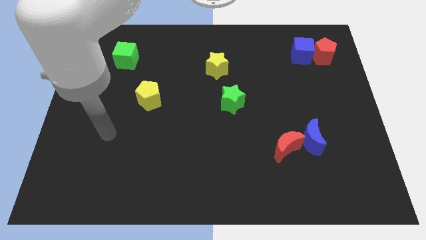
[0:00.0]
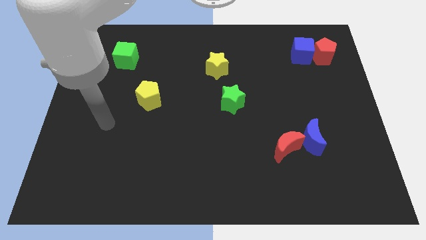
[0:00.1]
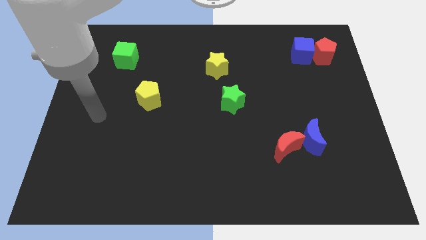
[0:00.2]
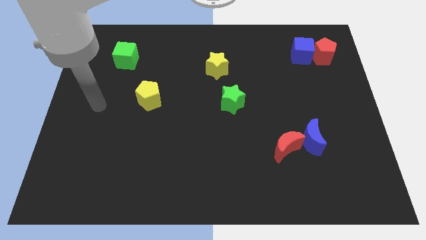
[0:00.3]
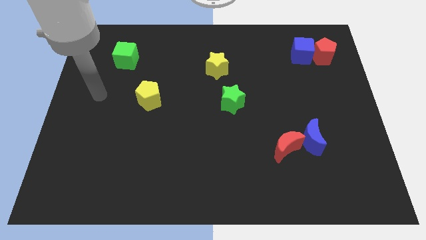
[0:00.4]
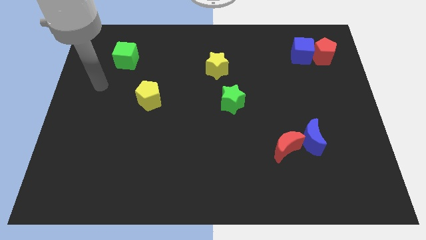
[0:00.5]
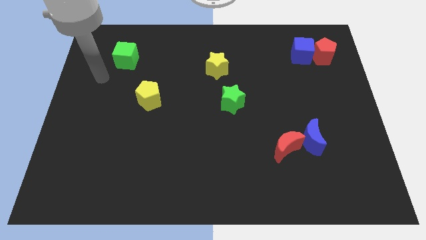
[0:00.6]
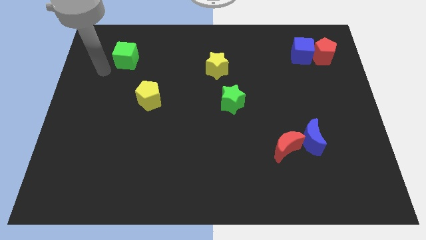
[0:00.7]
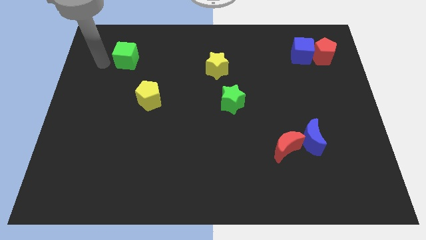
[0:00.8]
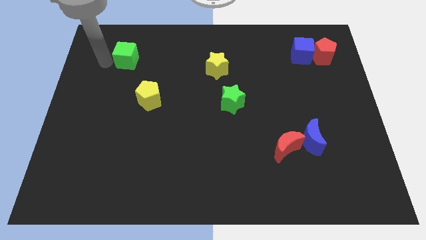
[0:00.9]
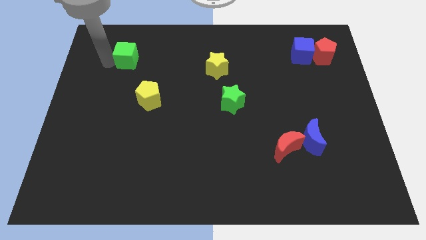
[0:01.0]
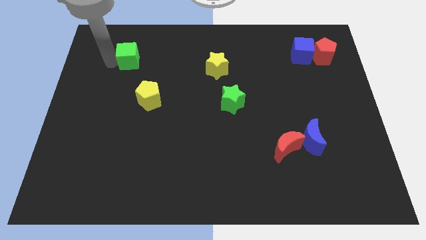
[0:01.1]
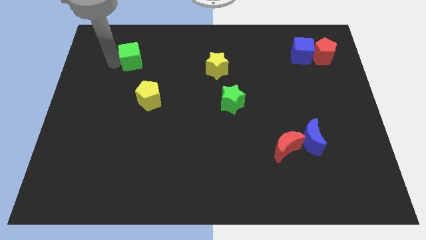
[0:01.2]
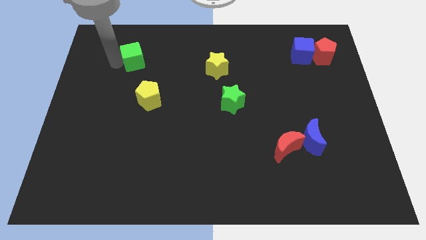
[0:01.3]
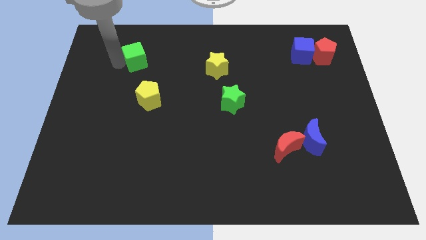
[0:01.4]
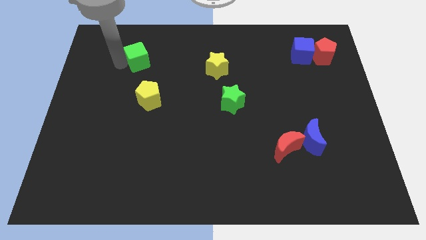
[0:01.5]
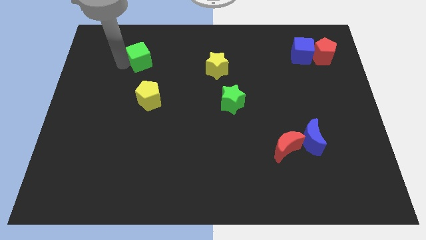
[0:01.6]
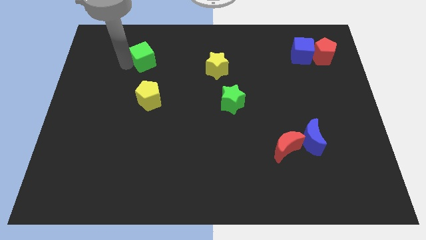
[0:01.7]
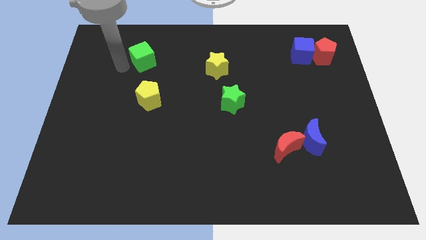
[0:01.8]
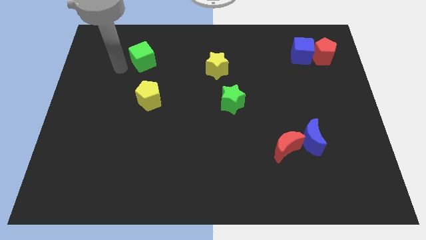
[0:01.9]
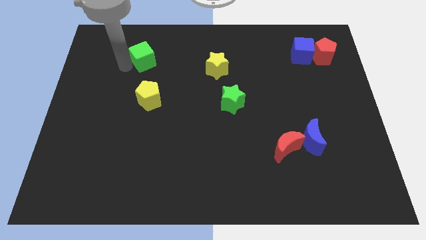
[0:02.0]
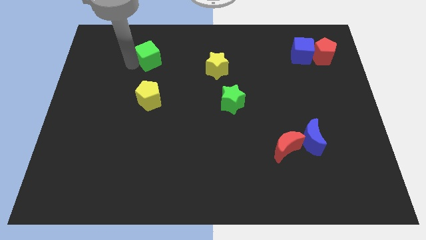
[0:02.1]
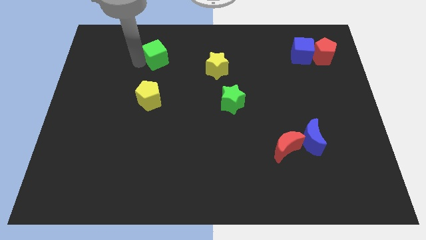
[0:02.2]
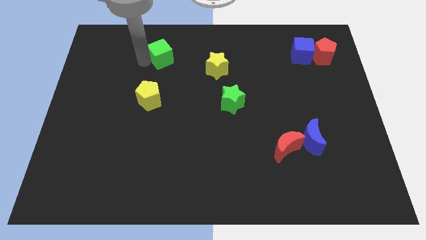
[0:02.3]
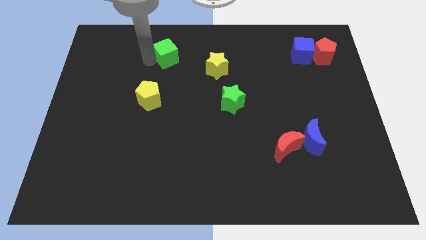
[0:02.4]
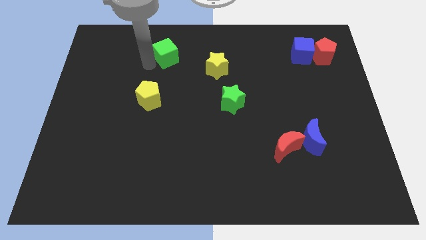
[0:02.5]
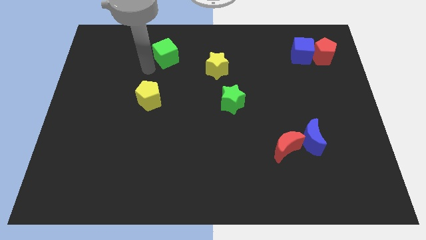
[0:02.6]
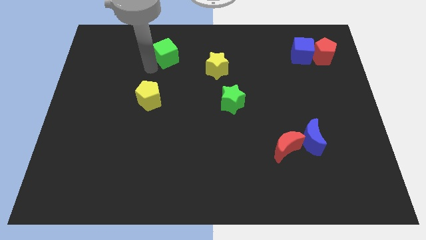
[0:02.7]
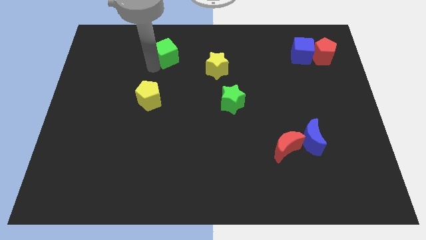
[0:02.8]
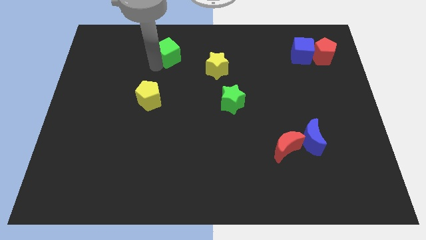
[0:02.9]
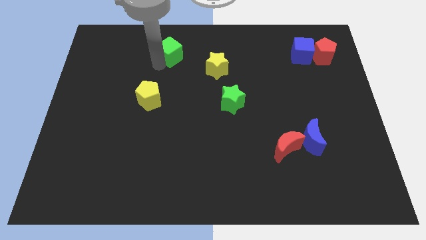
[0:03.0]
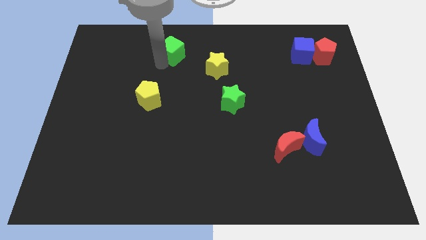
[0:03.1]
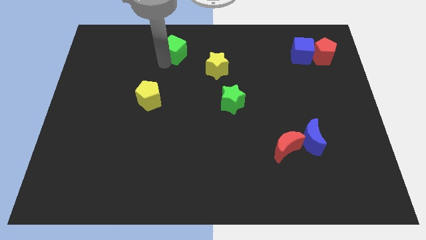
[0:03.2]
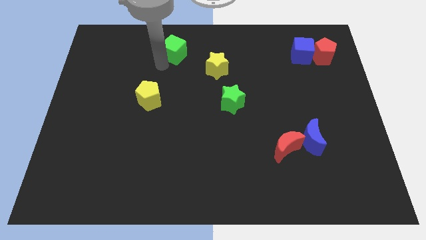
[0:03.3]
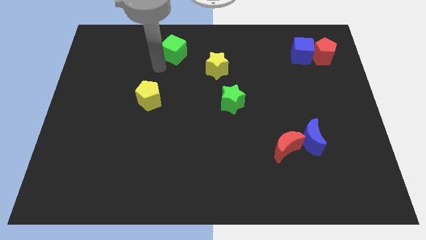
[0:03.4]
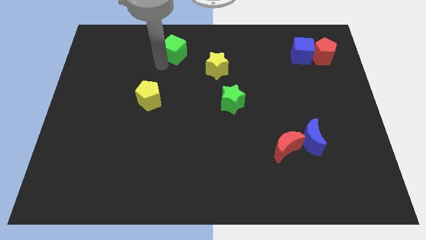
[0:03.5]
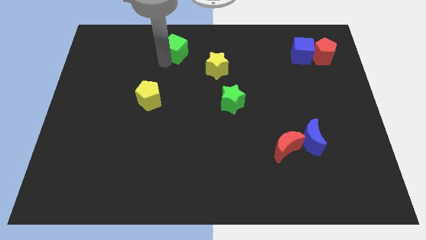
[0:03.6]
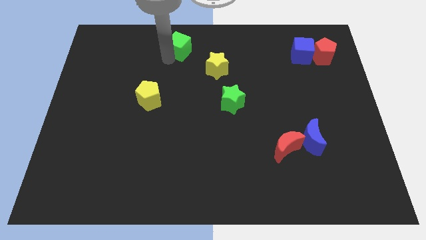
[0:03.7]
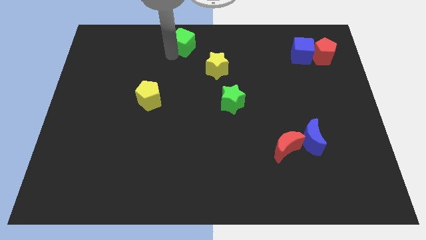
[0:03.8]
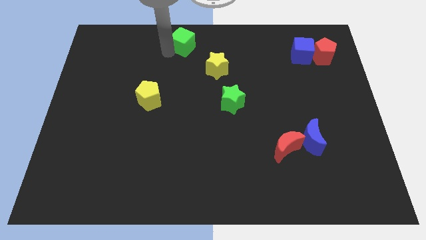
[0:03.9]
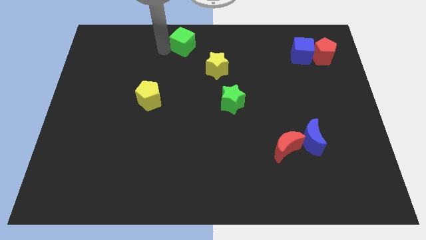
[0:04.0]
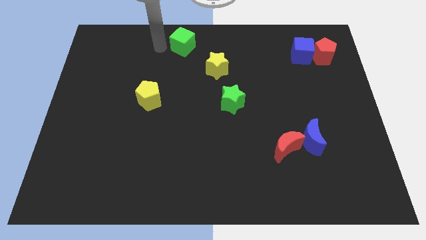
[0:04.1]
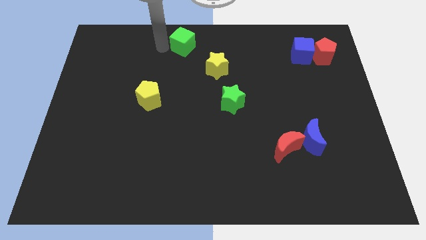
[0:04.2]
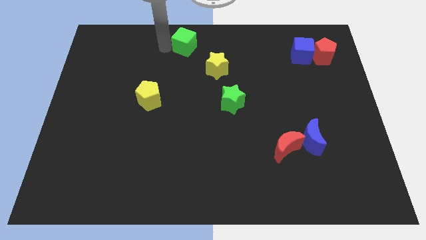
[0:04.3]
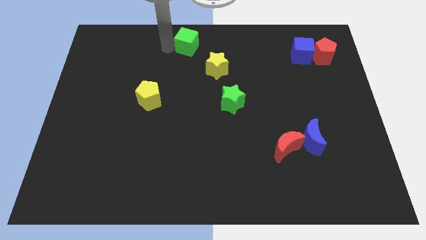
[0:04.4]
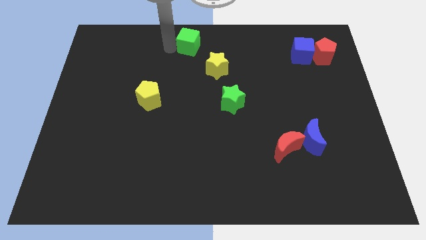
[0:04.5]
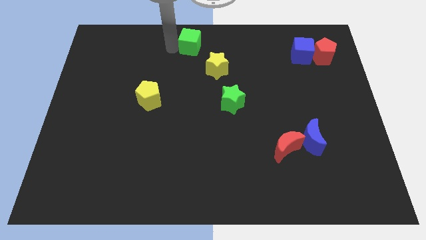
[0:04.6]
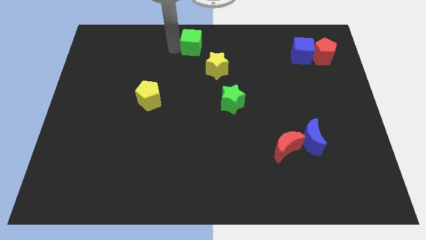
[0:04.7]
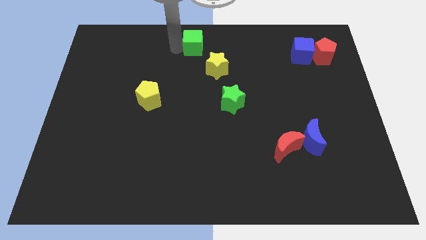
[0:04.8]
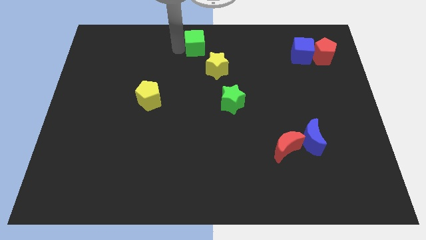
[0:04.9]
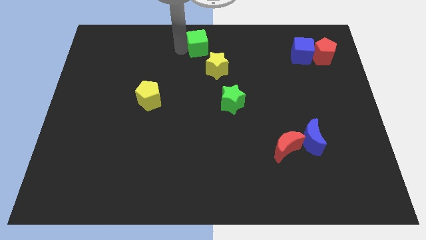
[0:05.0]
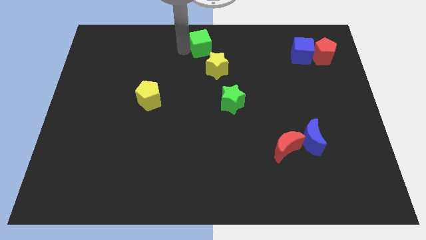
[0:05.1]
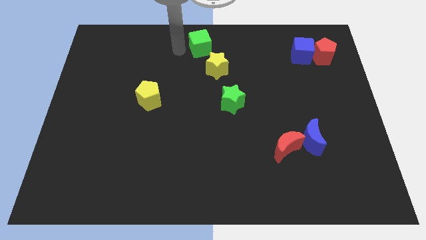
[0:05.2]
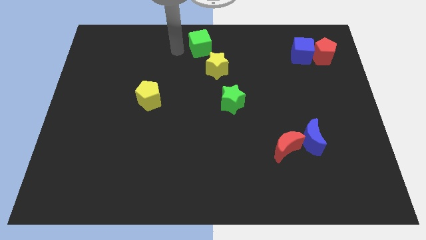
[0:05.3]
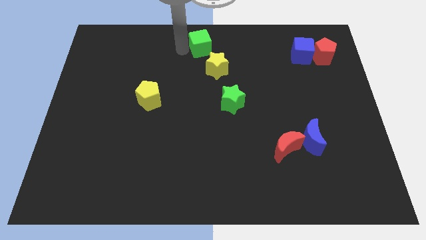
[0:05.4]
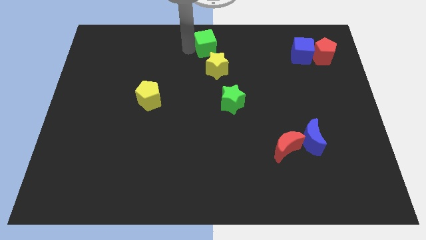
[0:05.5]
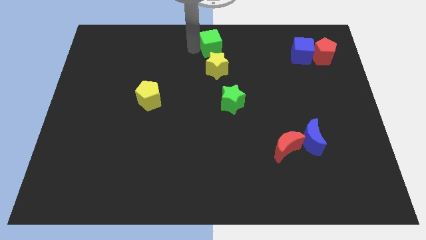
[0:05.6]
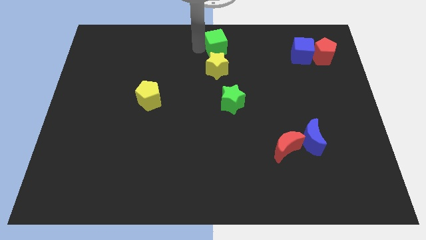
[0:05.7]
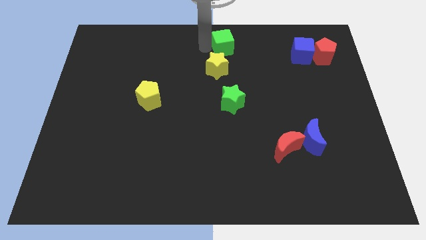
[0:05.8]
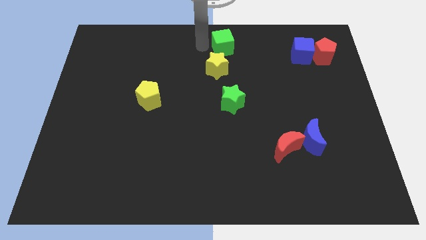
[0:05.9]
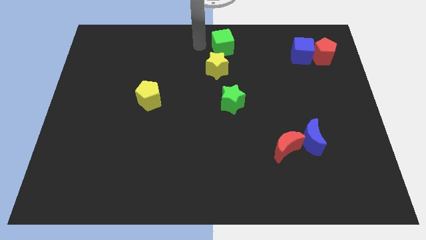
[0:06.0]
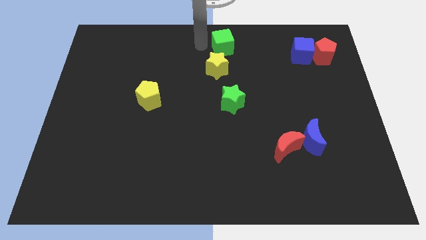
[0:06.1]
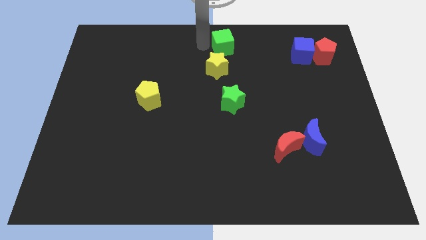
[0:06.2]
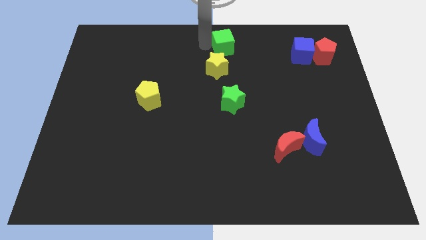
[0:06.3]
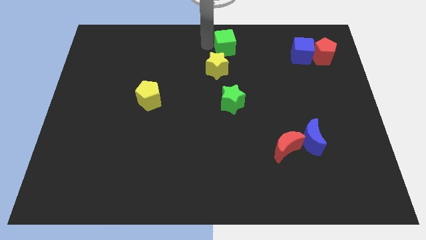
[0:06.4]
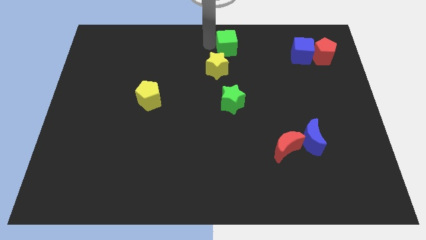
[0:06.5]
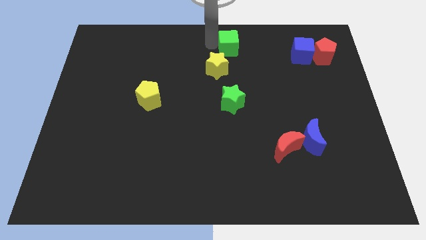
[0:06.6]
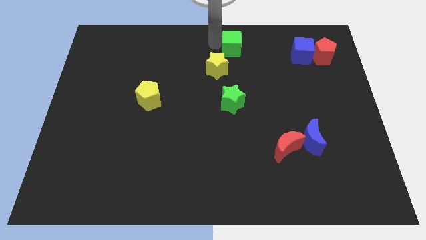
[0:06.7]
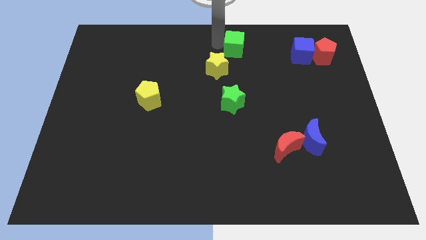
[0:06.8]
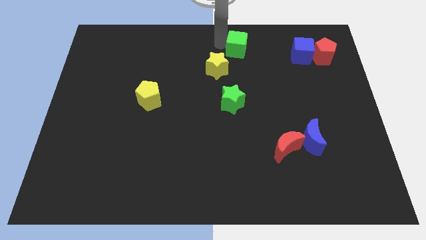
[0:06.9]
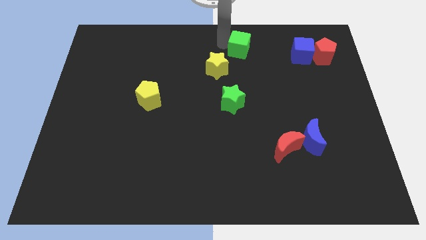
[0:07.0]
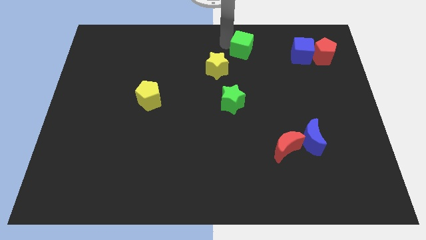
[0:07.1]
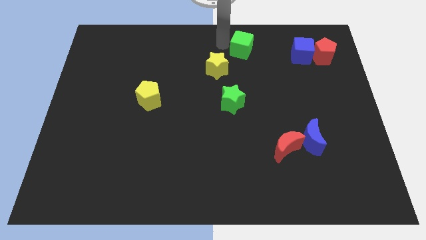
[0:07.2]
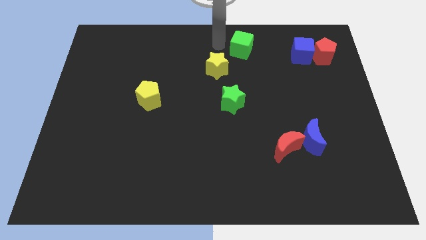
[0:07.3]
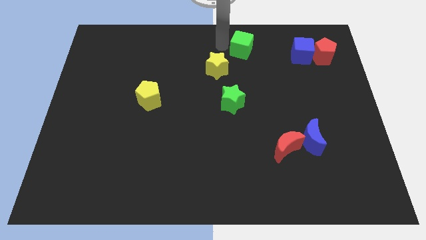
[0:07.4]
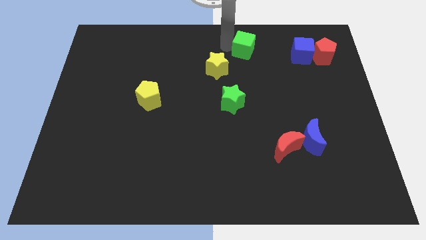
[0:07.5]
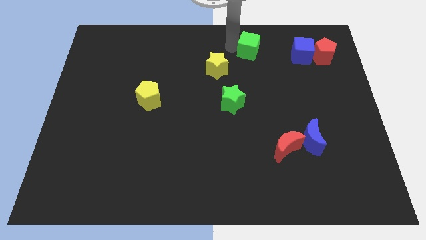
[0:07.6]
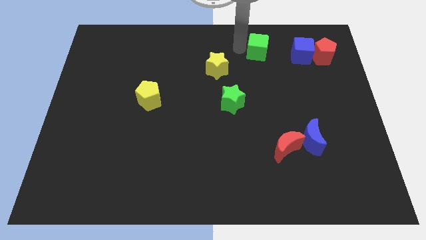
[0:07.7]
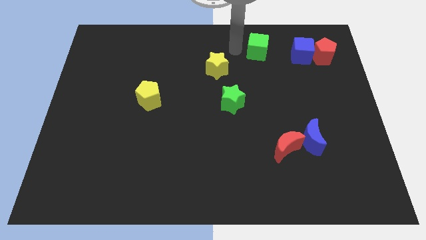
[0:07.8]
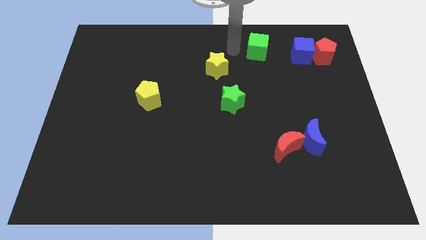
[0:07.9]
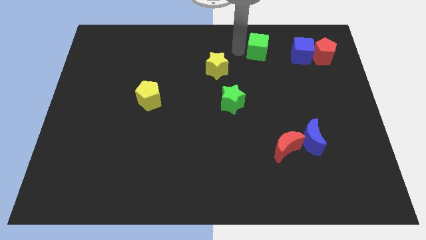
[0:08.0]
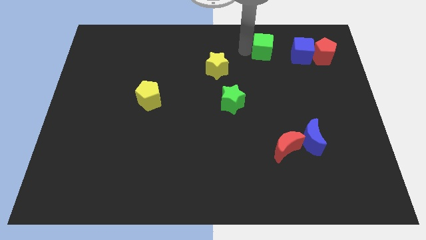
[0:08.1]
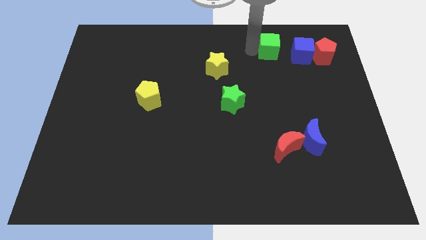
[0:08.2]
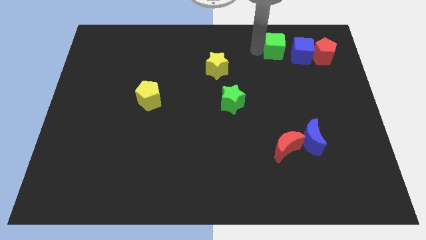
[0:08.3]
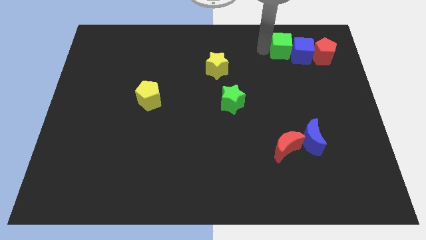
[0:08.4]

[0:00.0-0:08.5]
put the green cube to the blue cube
